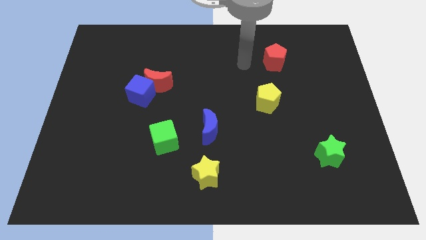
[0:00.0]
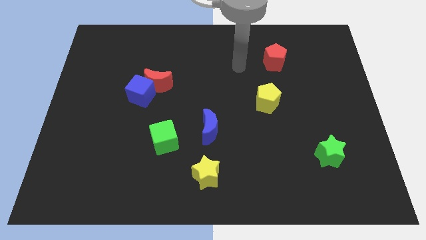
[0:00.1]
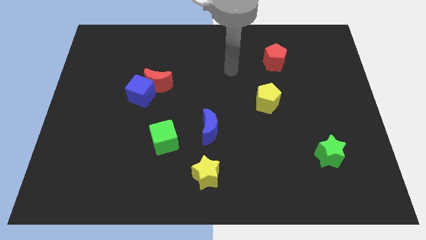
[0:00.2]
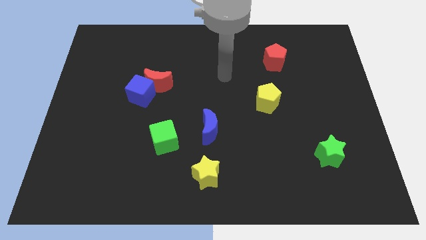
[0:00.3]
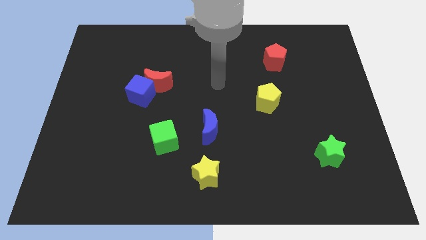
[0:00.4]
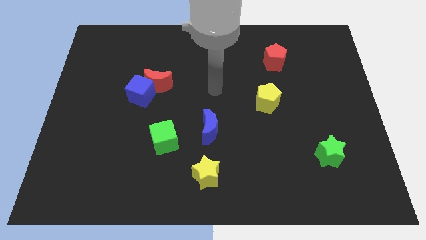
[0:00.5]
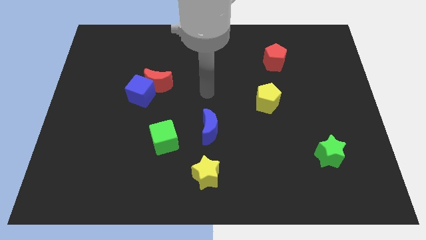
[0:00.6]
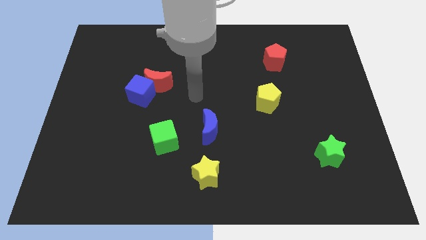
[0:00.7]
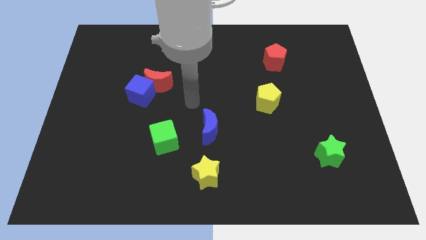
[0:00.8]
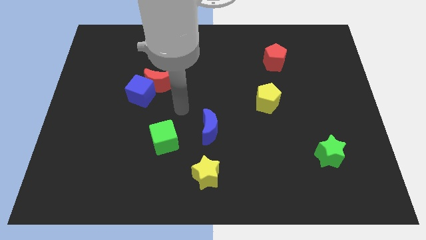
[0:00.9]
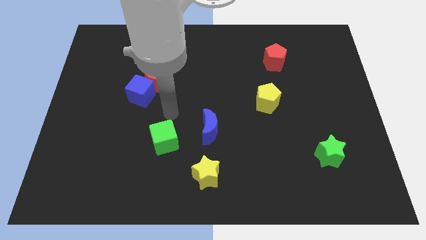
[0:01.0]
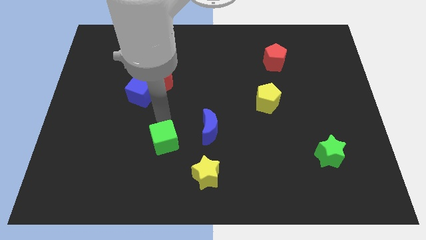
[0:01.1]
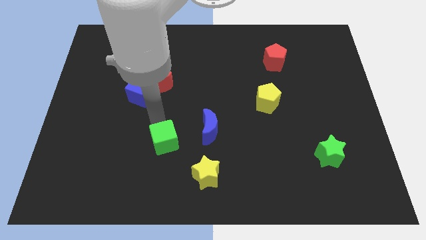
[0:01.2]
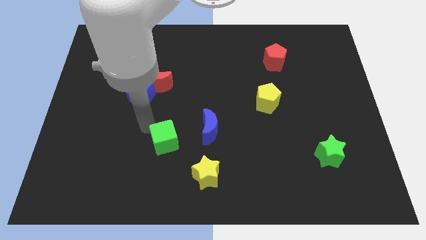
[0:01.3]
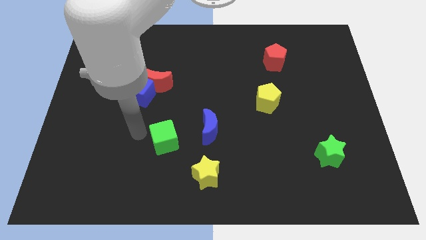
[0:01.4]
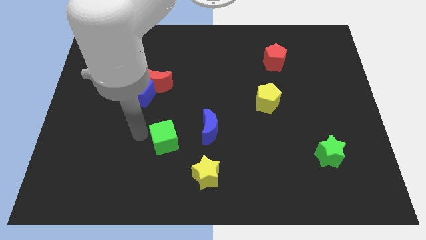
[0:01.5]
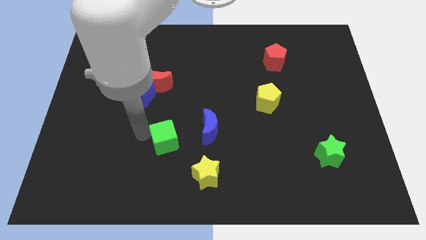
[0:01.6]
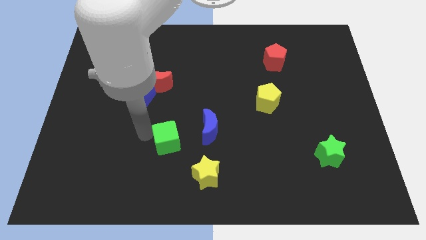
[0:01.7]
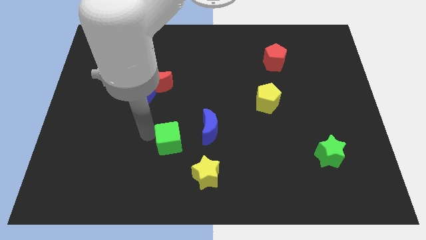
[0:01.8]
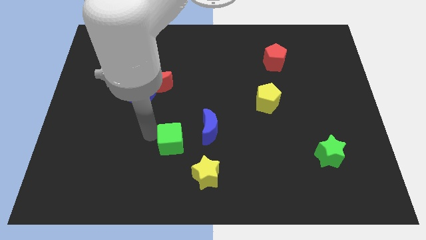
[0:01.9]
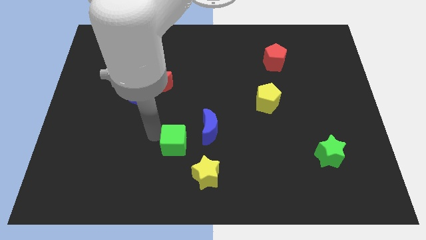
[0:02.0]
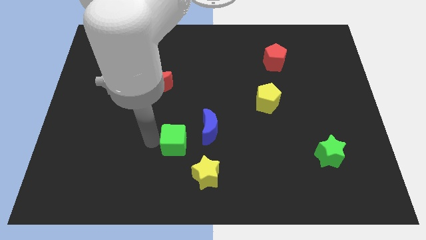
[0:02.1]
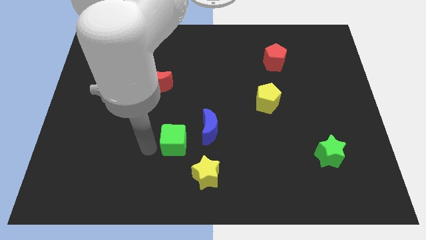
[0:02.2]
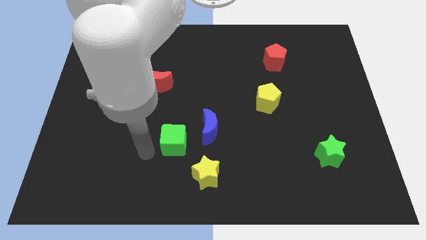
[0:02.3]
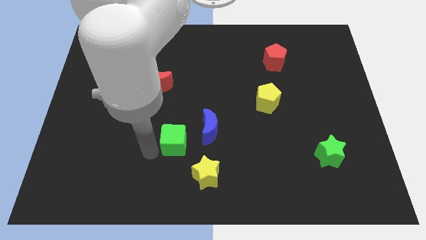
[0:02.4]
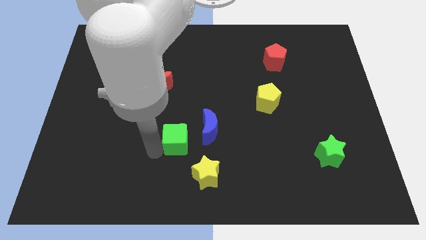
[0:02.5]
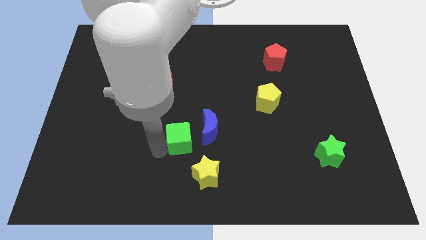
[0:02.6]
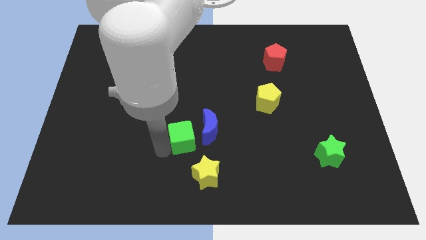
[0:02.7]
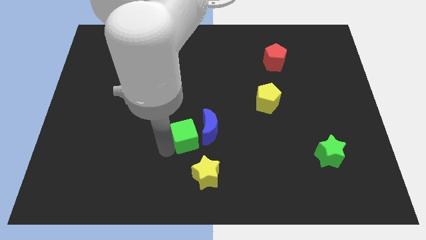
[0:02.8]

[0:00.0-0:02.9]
put the green cube close to the blue moon

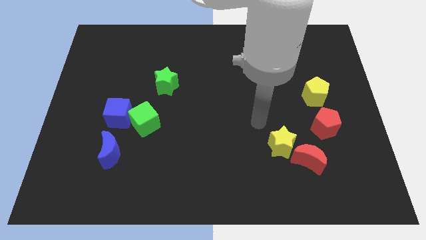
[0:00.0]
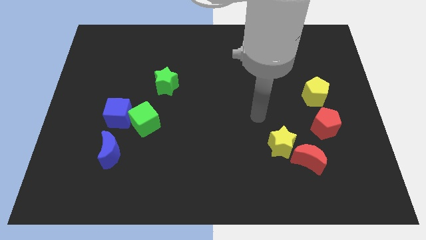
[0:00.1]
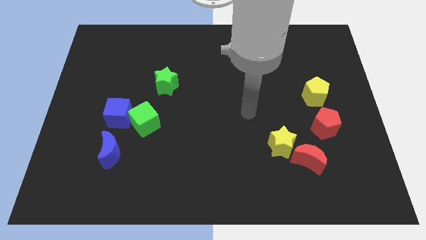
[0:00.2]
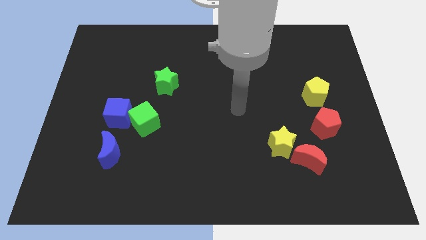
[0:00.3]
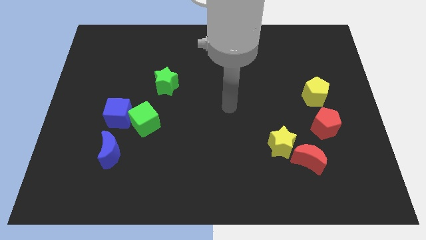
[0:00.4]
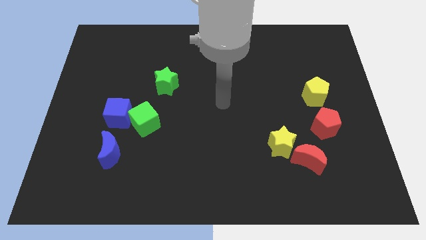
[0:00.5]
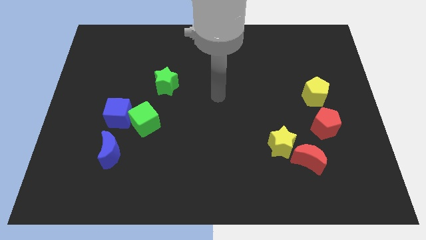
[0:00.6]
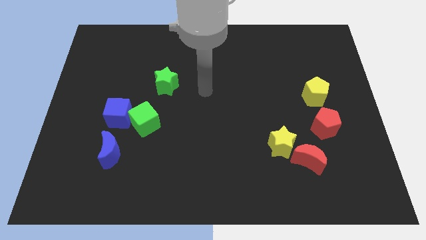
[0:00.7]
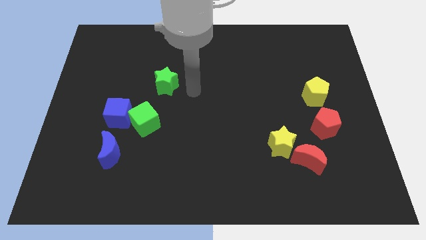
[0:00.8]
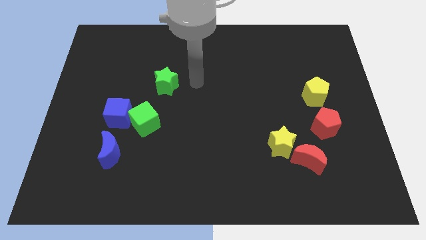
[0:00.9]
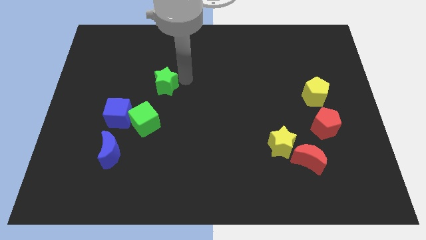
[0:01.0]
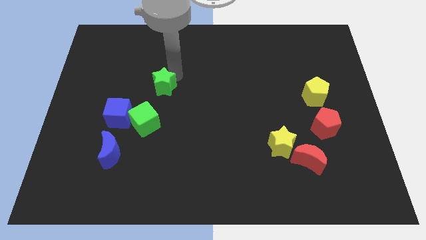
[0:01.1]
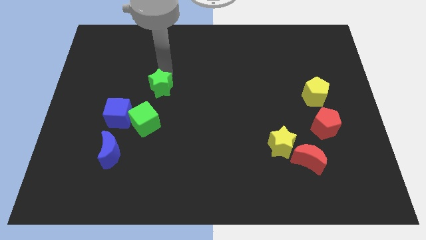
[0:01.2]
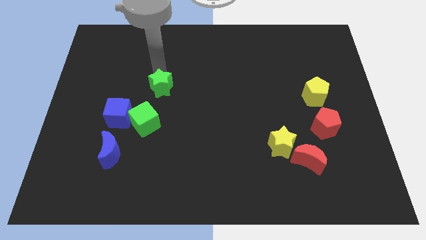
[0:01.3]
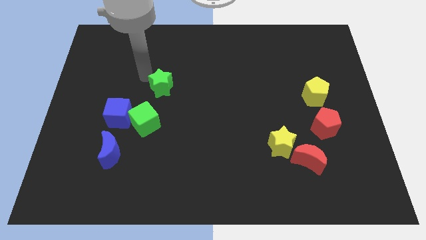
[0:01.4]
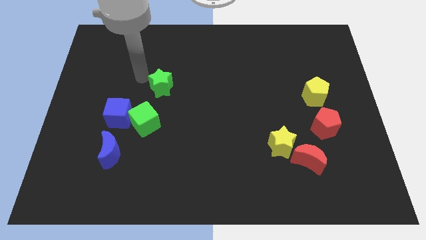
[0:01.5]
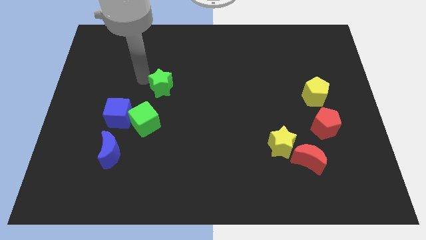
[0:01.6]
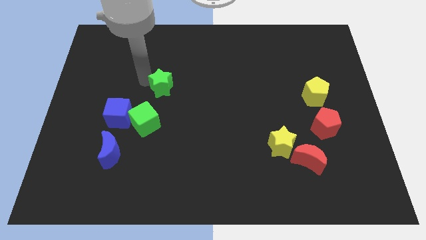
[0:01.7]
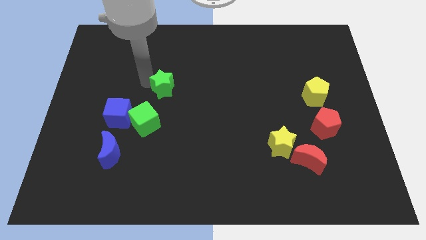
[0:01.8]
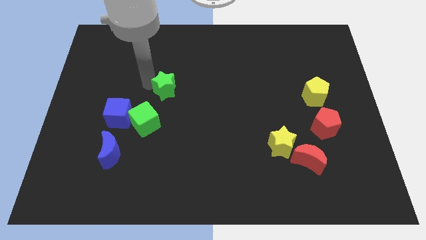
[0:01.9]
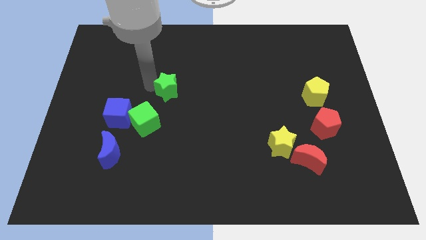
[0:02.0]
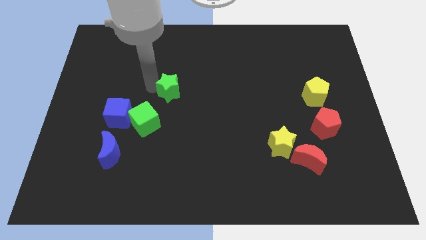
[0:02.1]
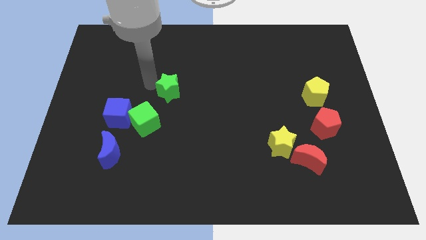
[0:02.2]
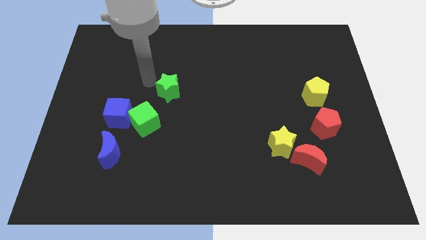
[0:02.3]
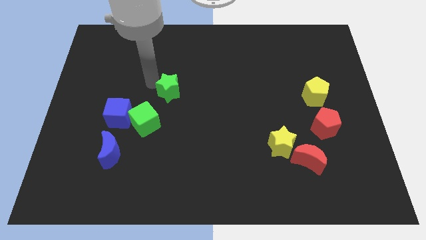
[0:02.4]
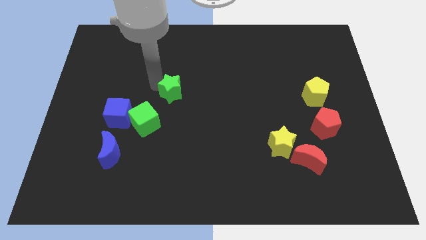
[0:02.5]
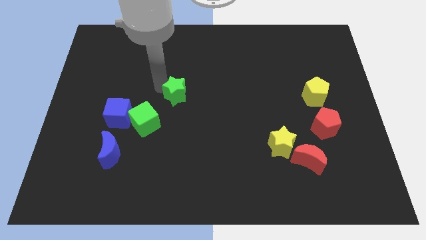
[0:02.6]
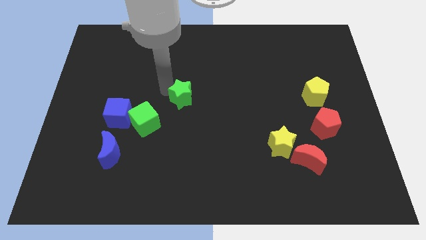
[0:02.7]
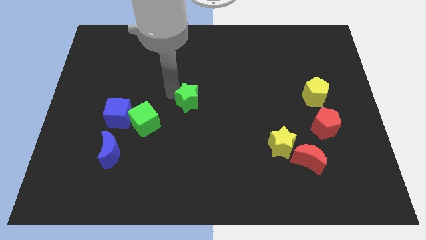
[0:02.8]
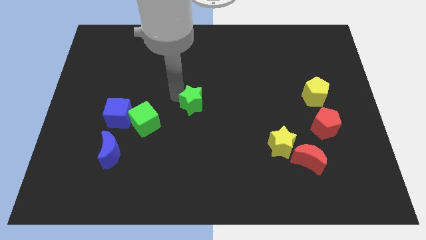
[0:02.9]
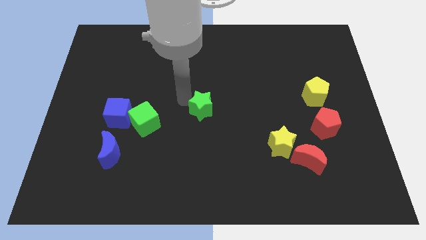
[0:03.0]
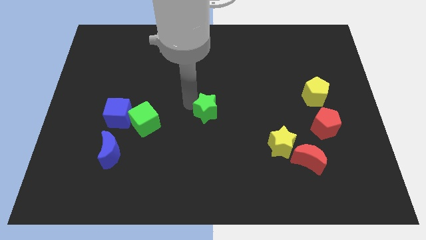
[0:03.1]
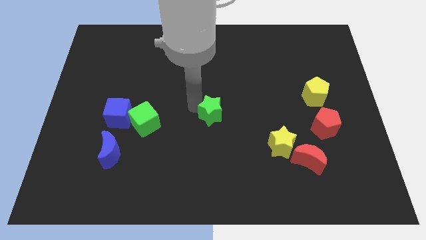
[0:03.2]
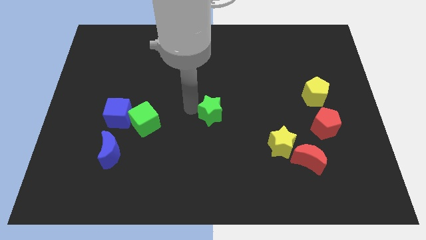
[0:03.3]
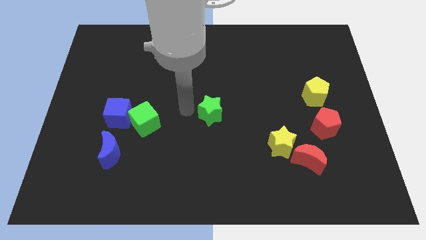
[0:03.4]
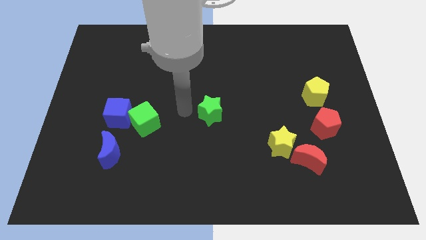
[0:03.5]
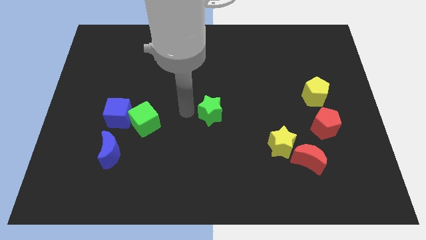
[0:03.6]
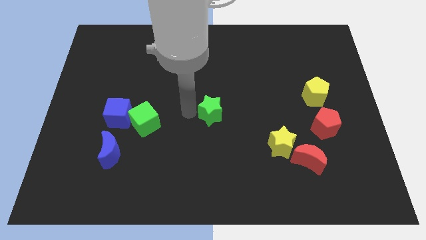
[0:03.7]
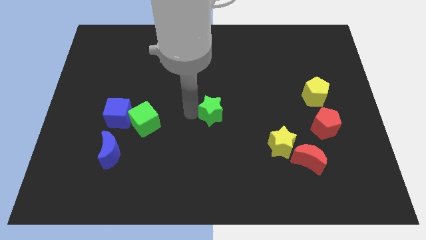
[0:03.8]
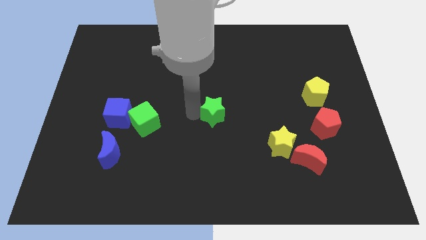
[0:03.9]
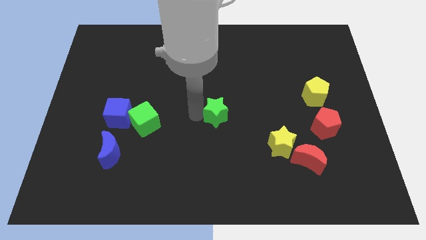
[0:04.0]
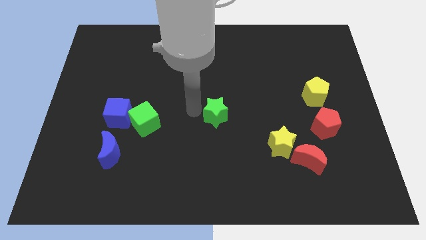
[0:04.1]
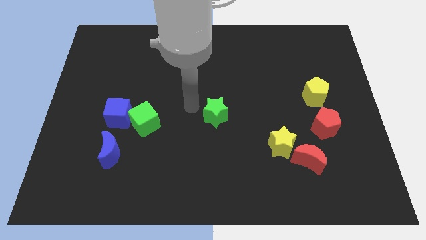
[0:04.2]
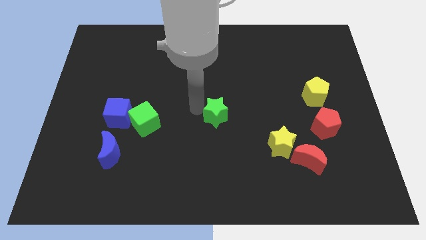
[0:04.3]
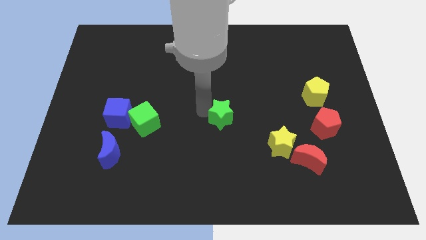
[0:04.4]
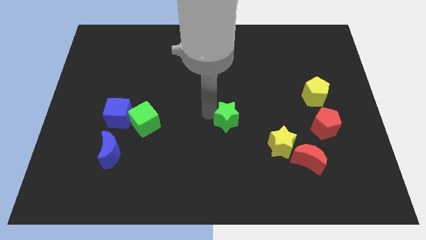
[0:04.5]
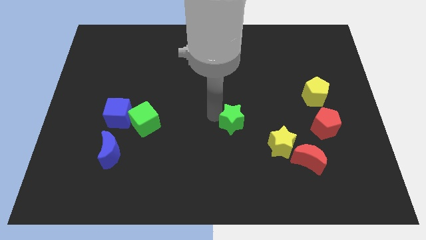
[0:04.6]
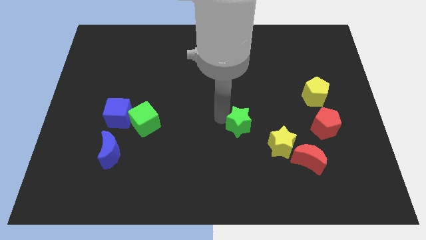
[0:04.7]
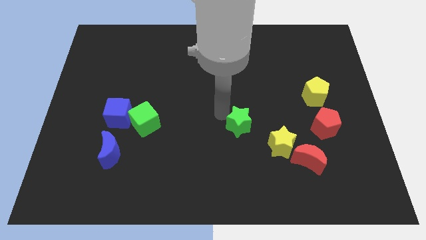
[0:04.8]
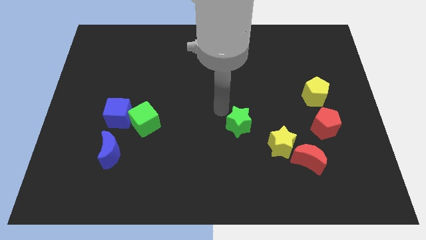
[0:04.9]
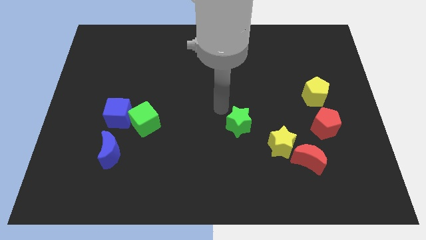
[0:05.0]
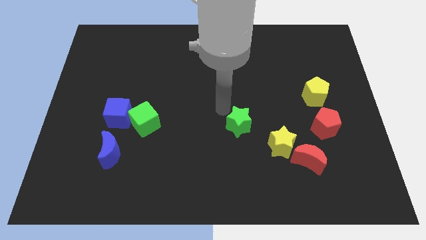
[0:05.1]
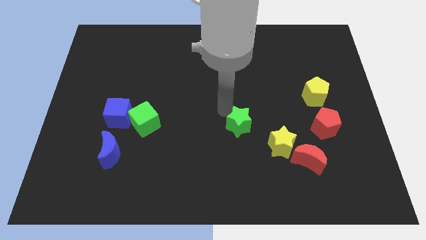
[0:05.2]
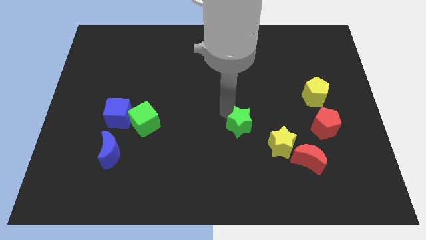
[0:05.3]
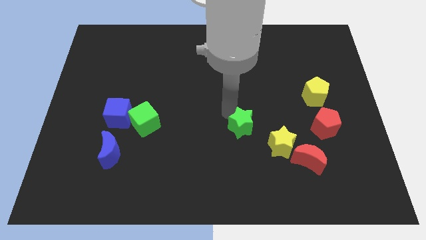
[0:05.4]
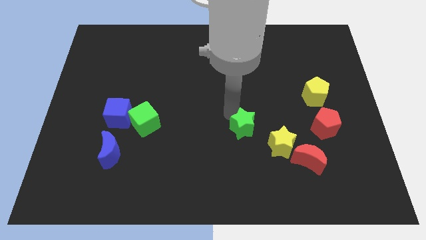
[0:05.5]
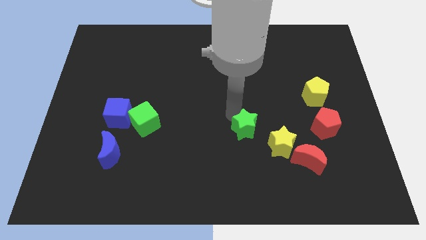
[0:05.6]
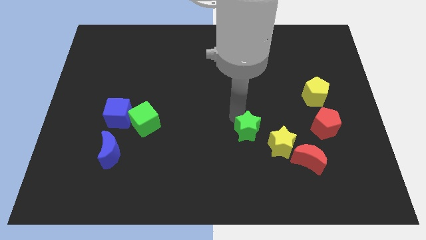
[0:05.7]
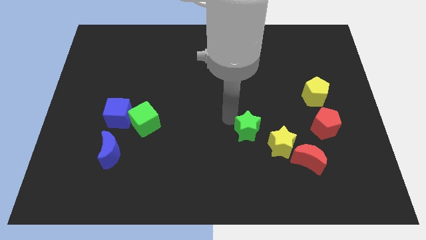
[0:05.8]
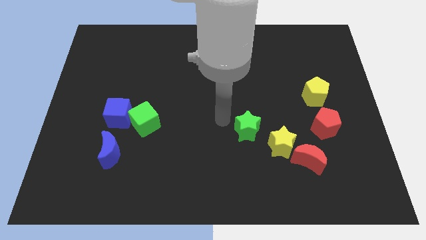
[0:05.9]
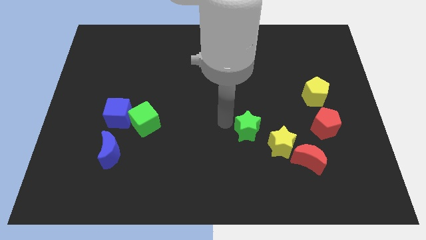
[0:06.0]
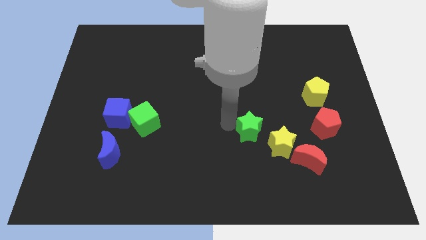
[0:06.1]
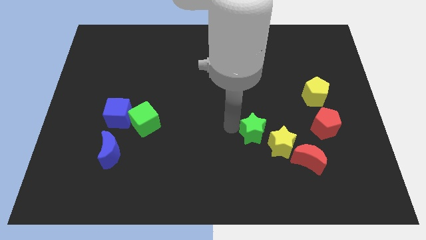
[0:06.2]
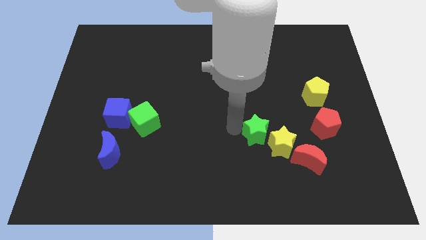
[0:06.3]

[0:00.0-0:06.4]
push the green star to the yellow star
